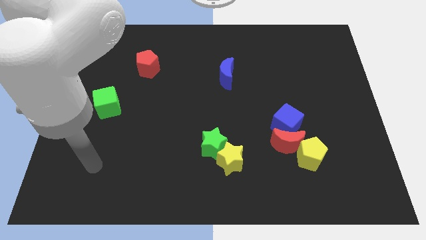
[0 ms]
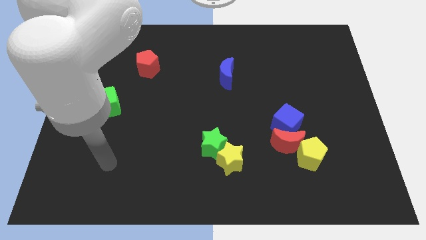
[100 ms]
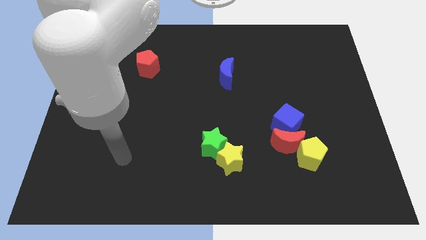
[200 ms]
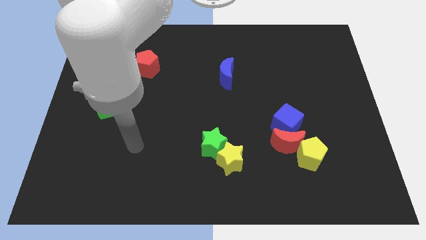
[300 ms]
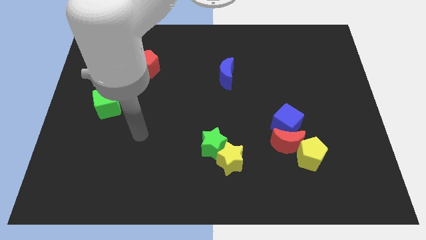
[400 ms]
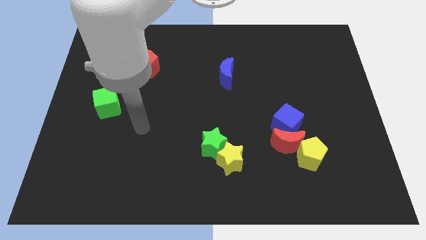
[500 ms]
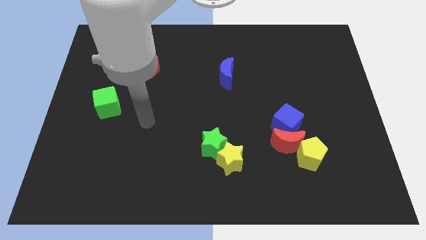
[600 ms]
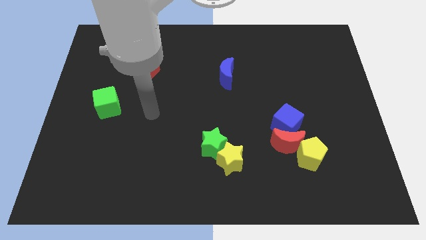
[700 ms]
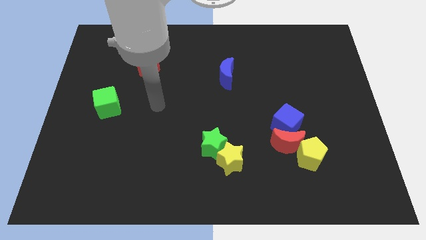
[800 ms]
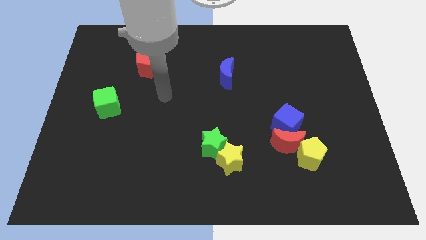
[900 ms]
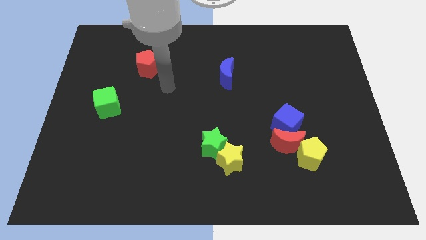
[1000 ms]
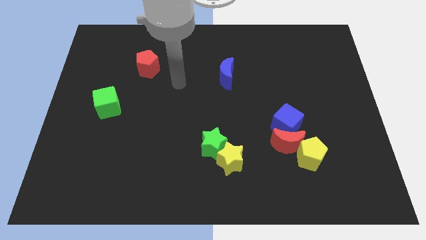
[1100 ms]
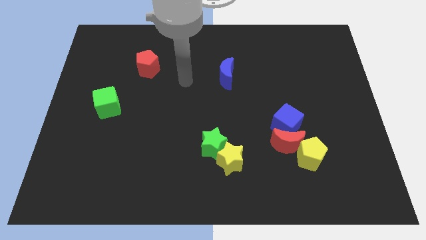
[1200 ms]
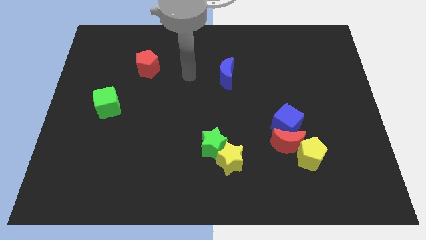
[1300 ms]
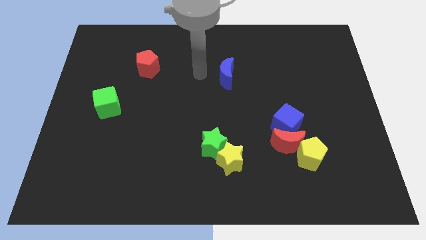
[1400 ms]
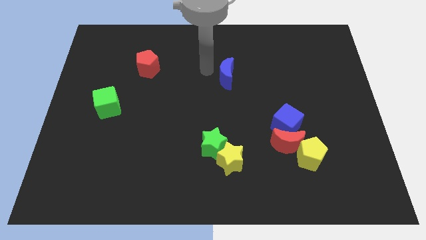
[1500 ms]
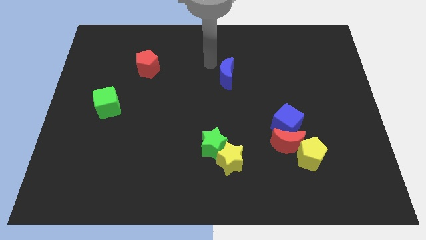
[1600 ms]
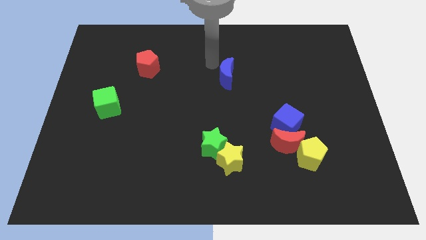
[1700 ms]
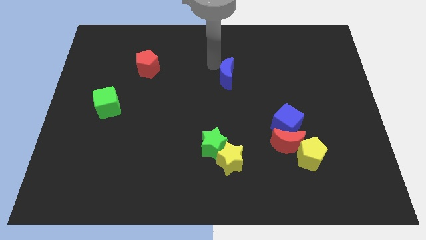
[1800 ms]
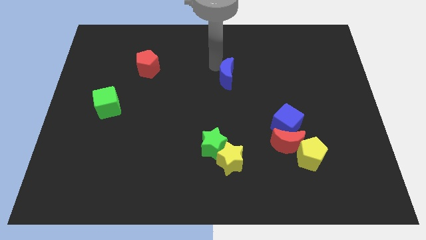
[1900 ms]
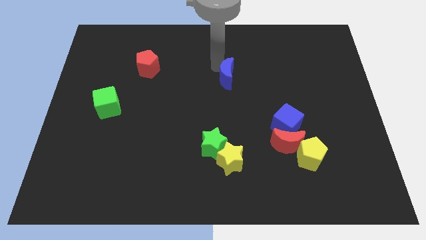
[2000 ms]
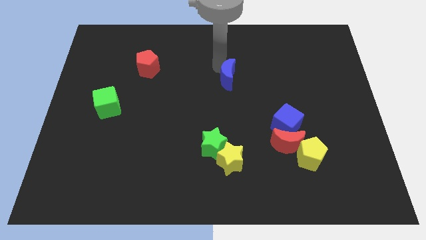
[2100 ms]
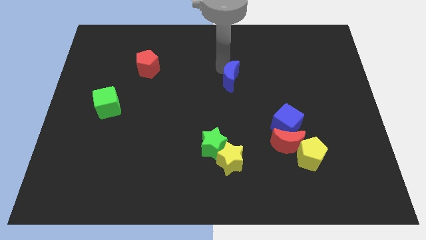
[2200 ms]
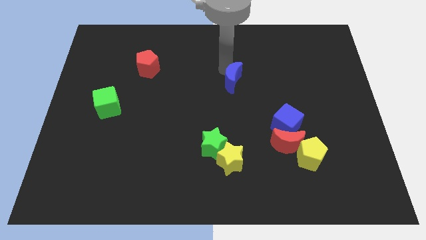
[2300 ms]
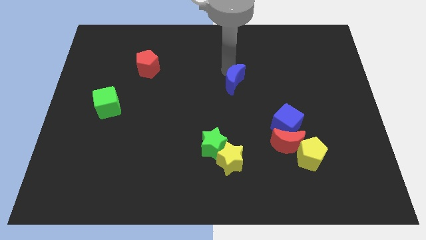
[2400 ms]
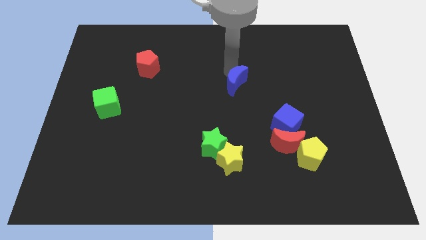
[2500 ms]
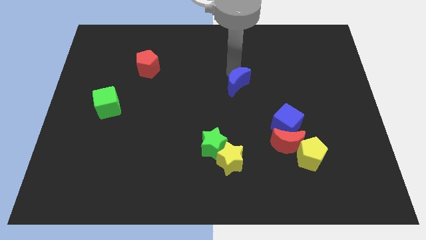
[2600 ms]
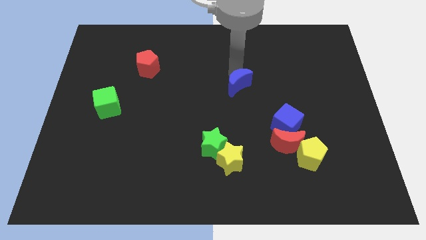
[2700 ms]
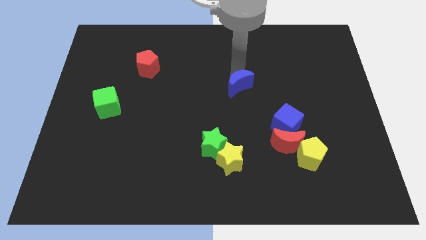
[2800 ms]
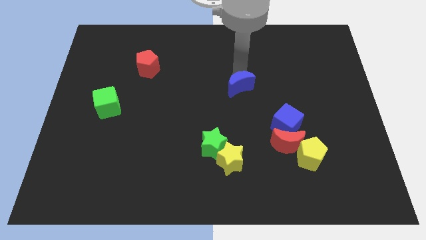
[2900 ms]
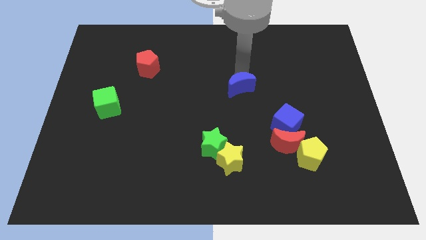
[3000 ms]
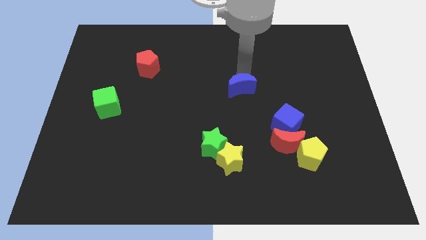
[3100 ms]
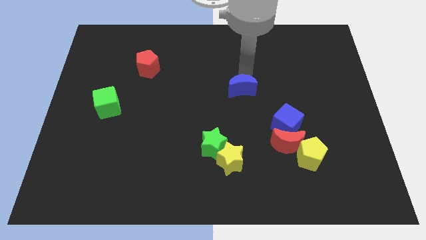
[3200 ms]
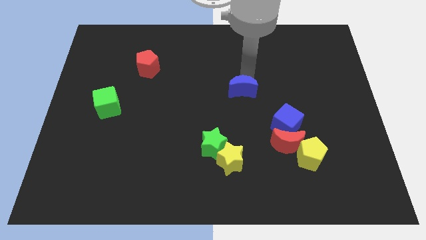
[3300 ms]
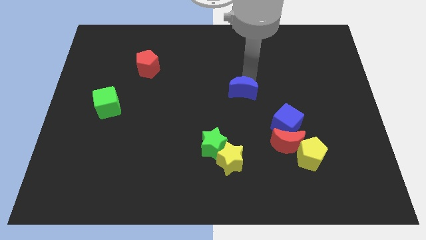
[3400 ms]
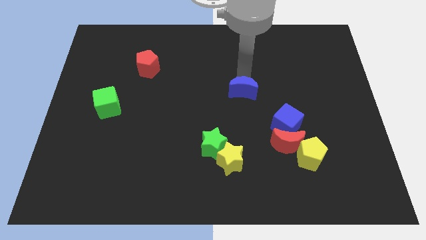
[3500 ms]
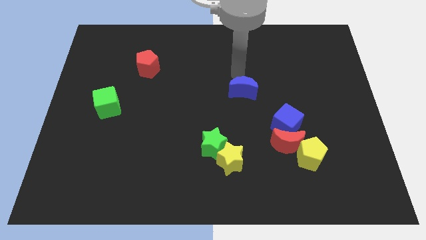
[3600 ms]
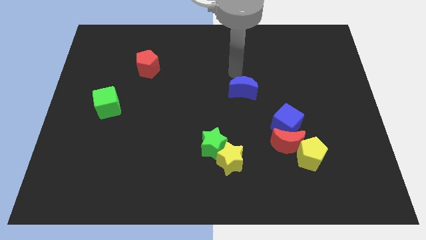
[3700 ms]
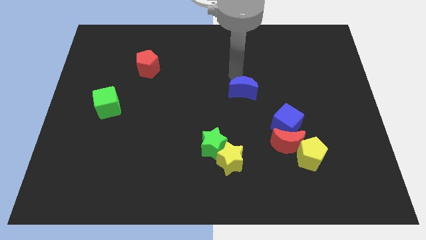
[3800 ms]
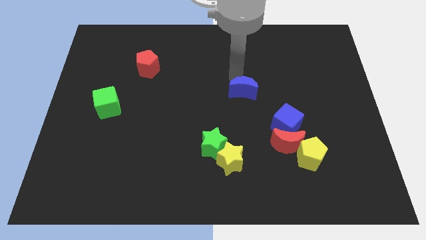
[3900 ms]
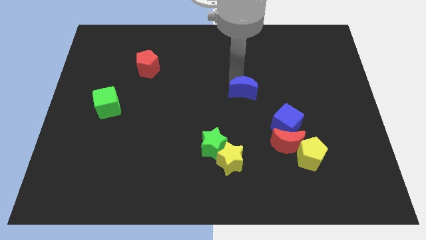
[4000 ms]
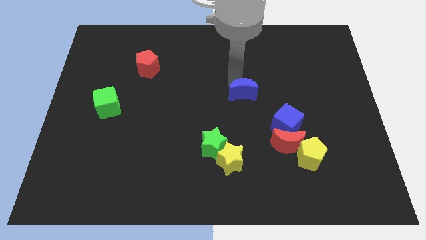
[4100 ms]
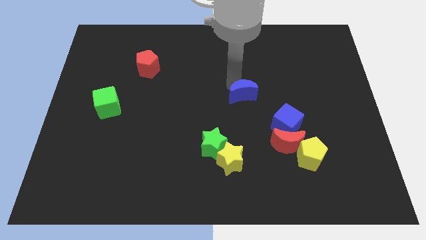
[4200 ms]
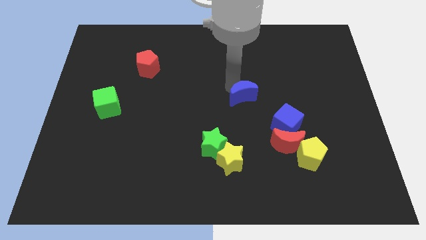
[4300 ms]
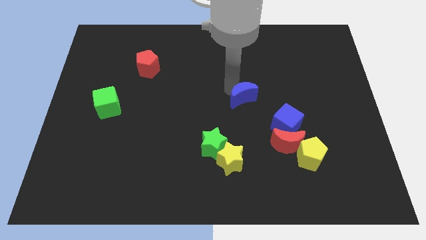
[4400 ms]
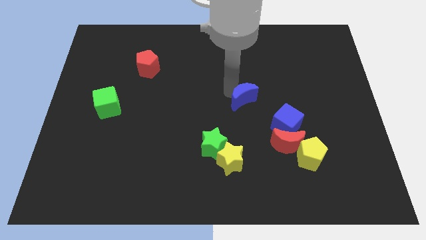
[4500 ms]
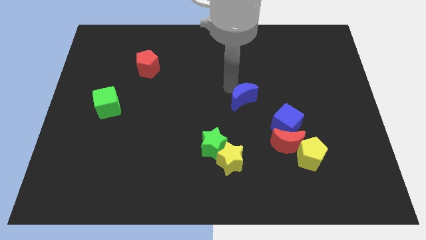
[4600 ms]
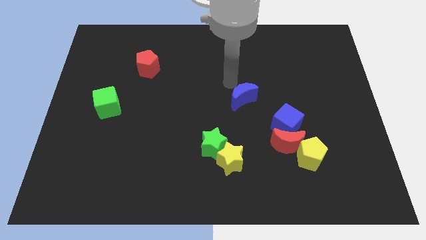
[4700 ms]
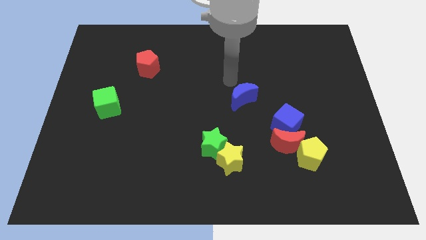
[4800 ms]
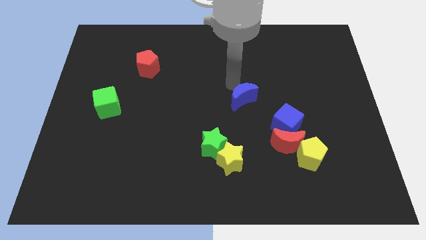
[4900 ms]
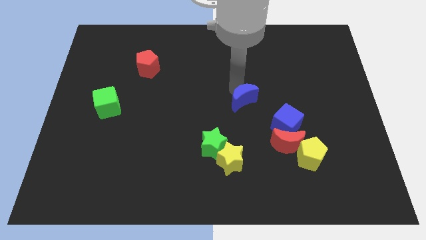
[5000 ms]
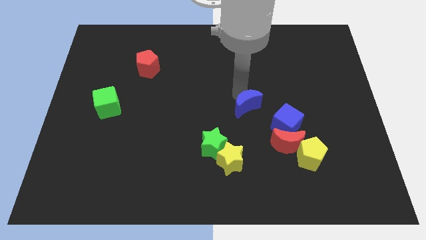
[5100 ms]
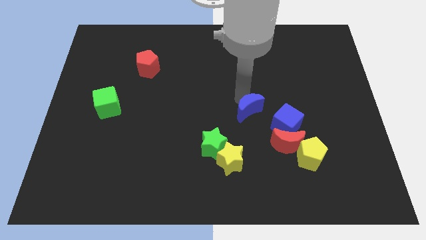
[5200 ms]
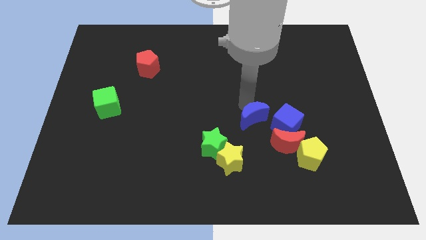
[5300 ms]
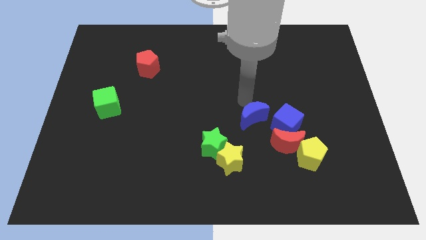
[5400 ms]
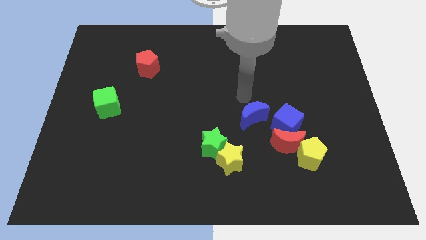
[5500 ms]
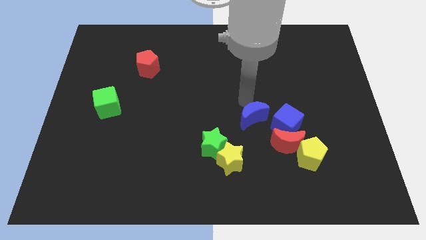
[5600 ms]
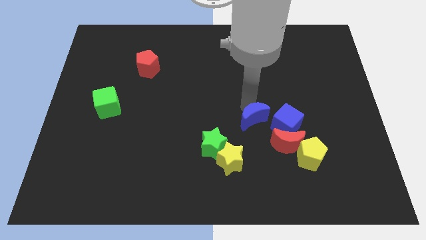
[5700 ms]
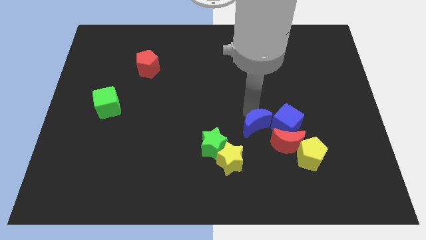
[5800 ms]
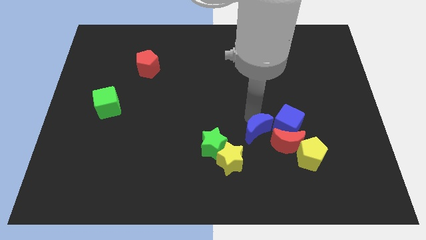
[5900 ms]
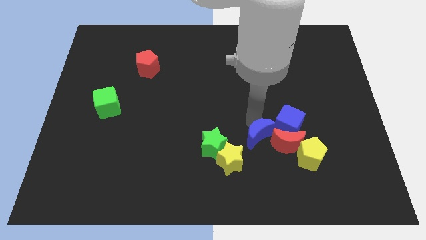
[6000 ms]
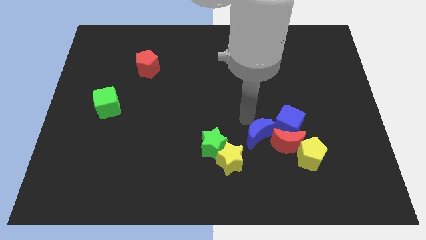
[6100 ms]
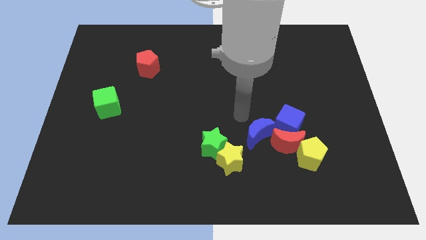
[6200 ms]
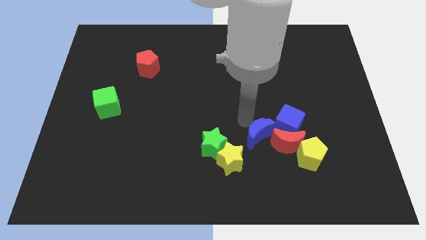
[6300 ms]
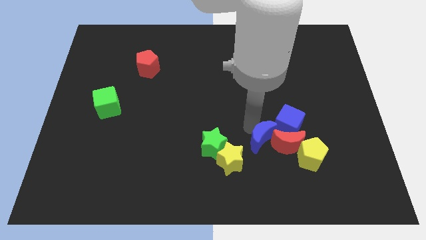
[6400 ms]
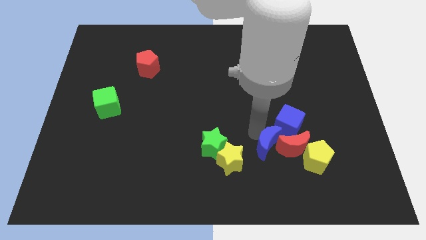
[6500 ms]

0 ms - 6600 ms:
put the blue moon to the right side of the yellow star

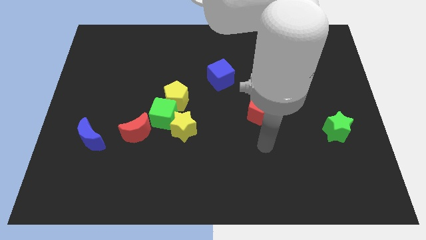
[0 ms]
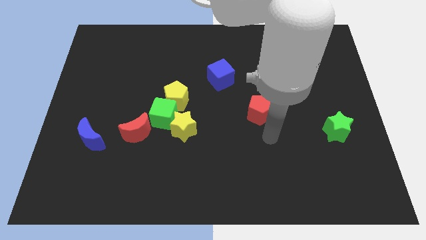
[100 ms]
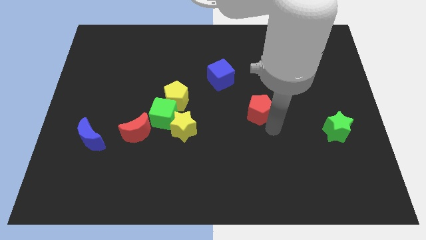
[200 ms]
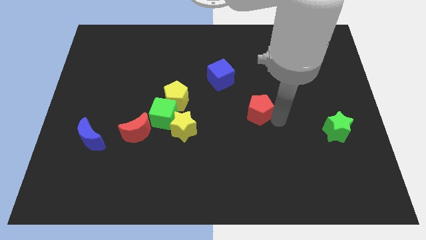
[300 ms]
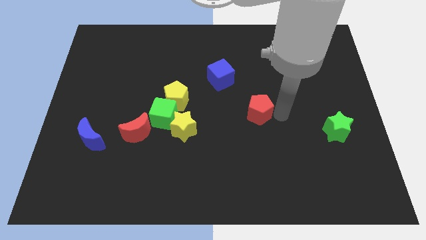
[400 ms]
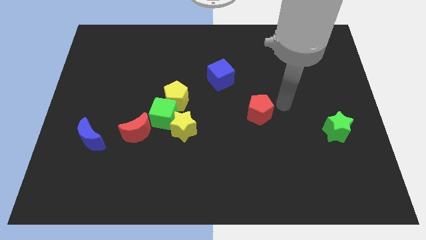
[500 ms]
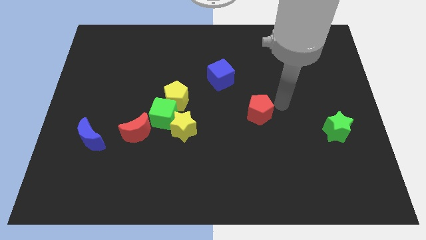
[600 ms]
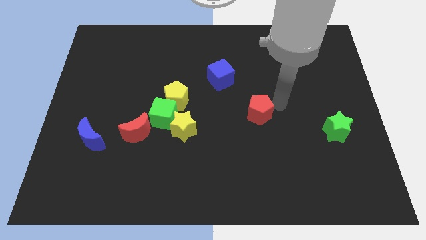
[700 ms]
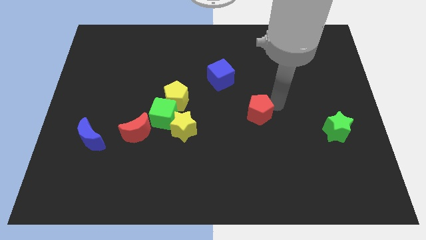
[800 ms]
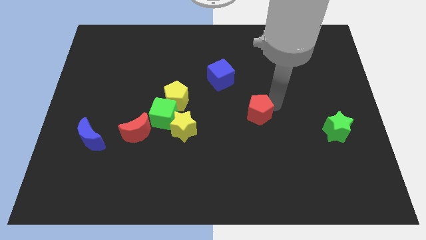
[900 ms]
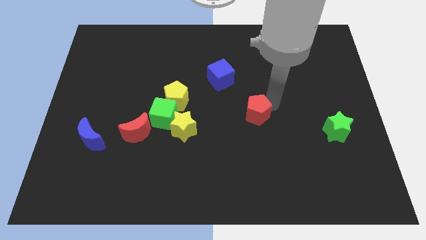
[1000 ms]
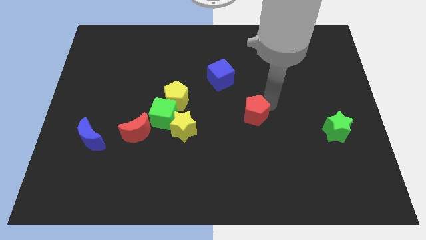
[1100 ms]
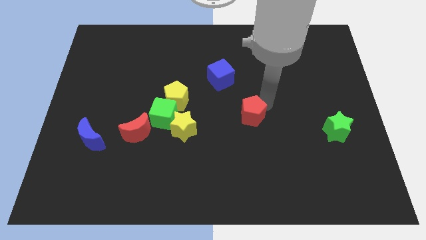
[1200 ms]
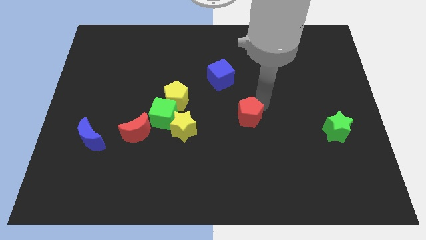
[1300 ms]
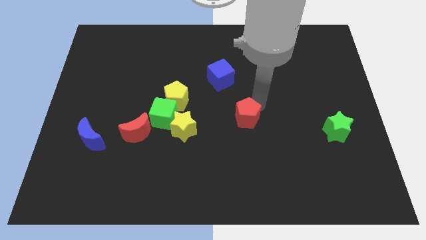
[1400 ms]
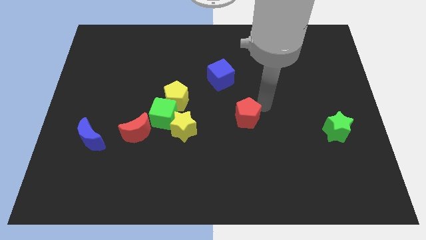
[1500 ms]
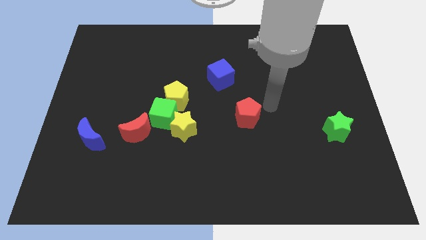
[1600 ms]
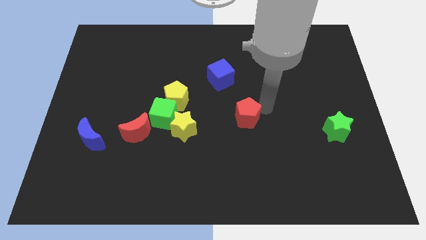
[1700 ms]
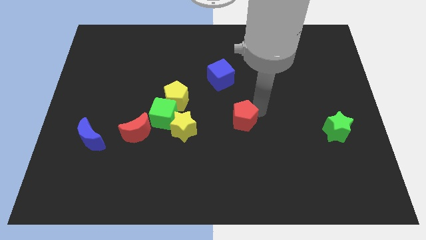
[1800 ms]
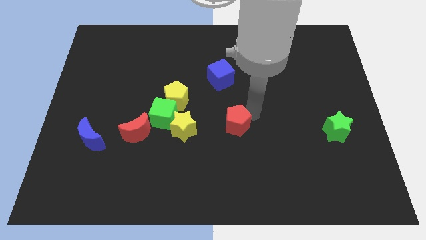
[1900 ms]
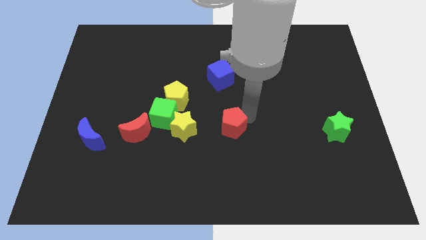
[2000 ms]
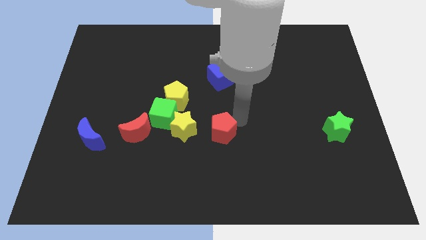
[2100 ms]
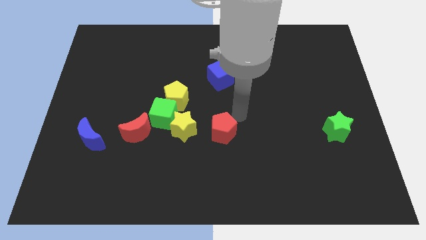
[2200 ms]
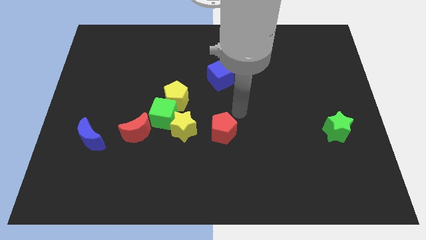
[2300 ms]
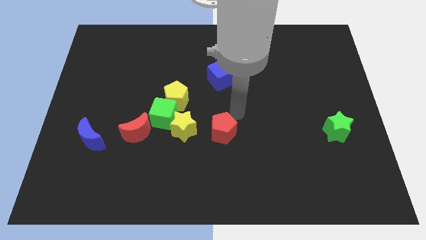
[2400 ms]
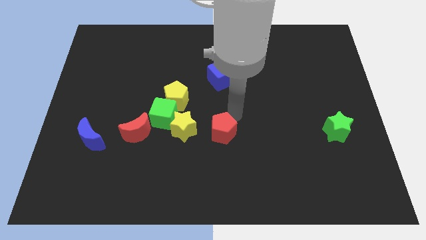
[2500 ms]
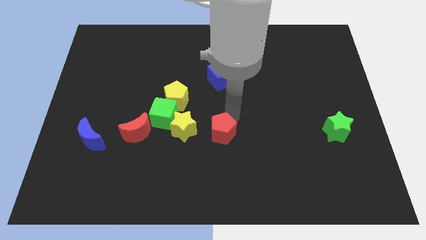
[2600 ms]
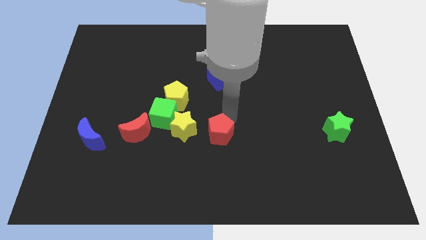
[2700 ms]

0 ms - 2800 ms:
slide the red pentagon to the bottom right of the yellow star
